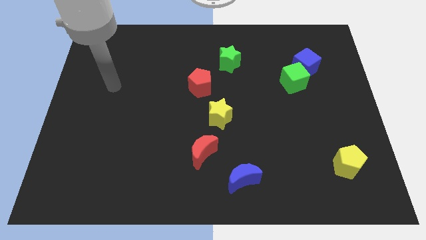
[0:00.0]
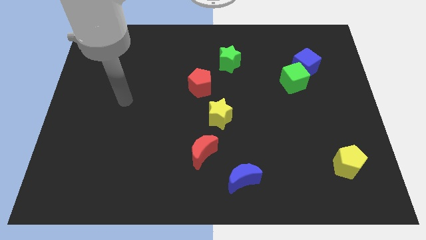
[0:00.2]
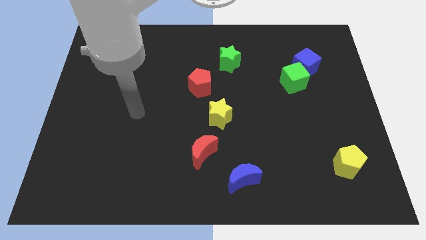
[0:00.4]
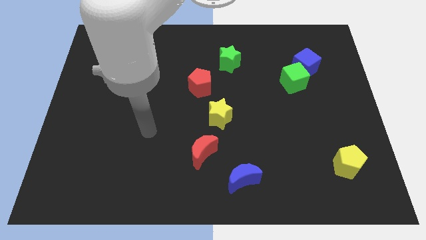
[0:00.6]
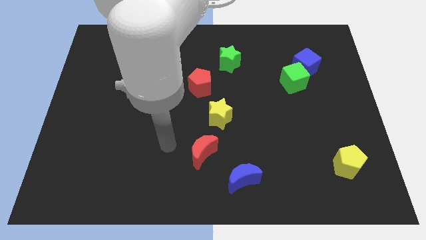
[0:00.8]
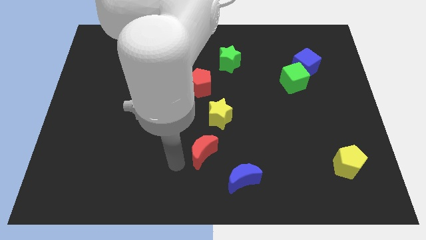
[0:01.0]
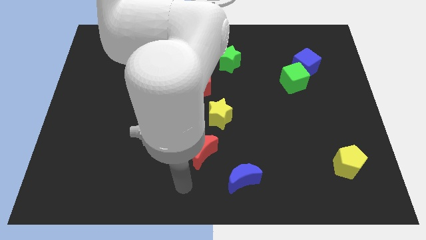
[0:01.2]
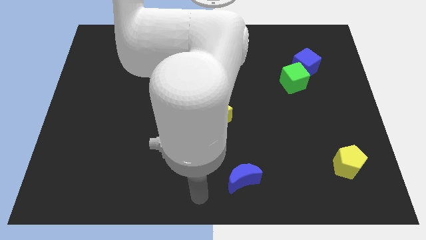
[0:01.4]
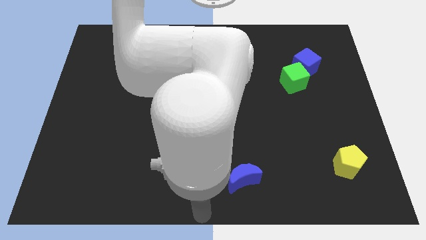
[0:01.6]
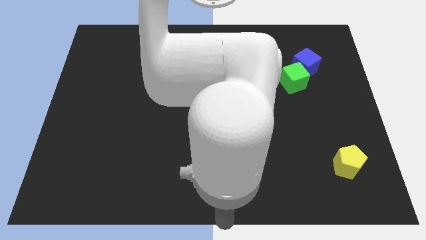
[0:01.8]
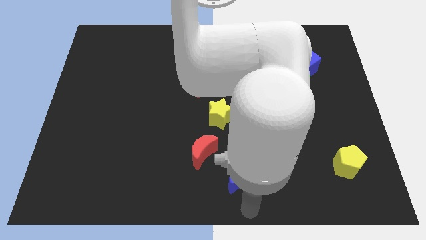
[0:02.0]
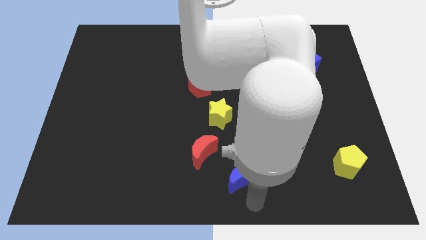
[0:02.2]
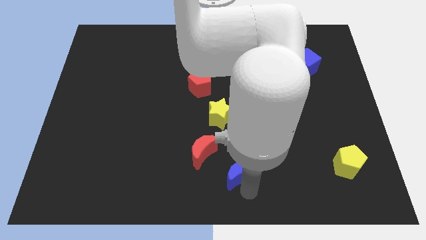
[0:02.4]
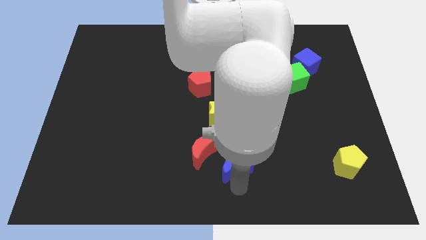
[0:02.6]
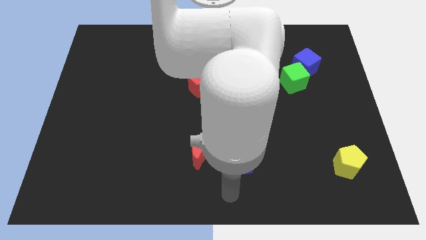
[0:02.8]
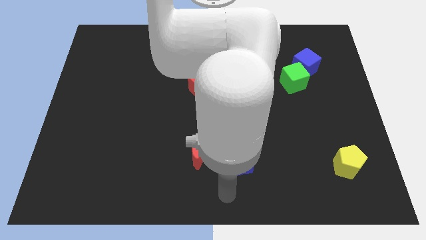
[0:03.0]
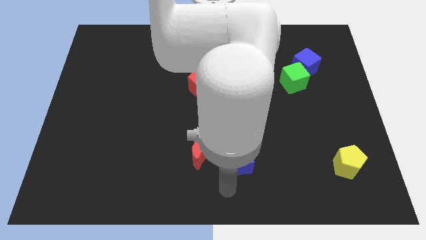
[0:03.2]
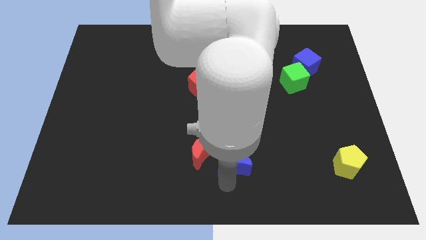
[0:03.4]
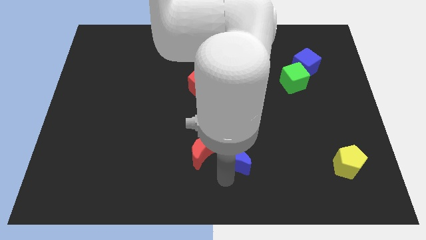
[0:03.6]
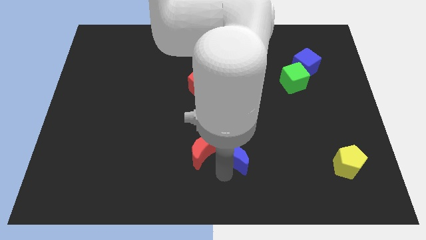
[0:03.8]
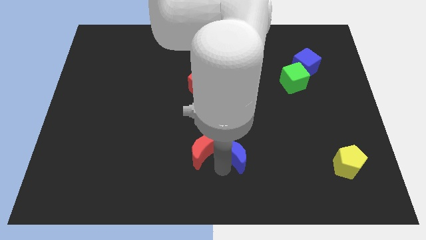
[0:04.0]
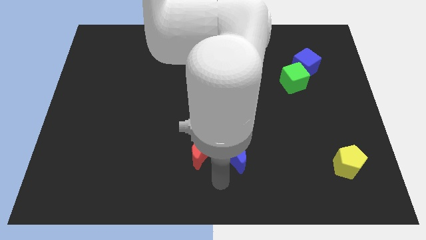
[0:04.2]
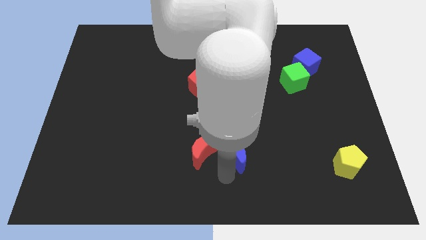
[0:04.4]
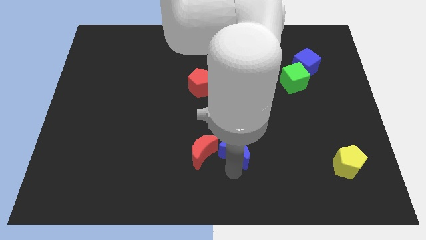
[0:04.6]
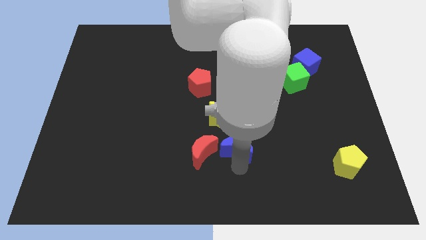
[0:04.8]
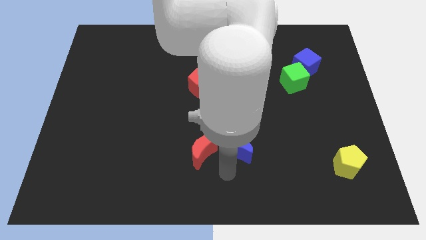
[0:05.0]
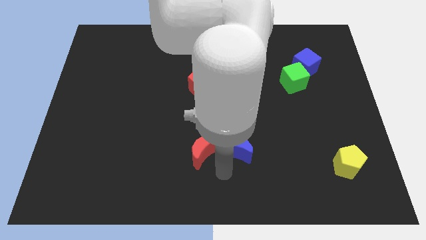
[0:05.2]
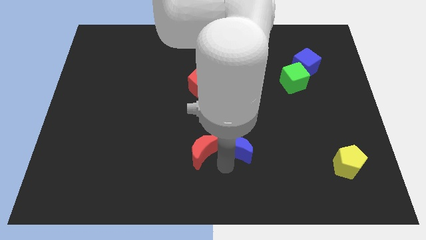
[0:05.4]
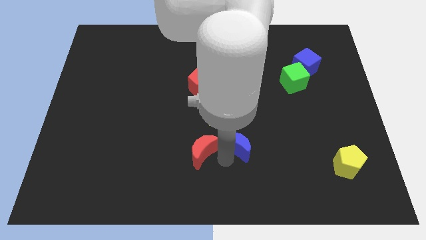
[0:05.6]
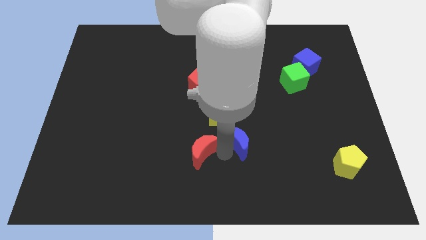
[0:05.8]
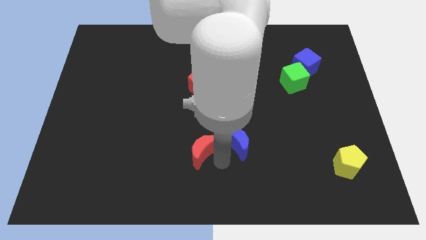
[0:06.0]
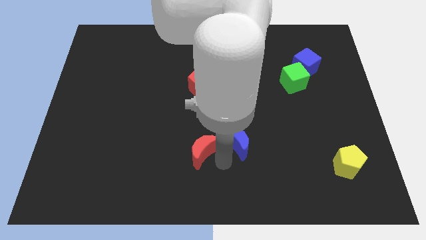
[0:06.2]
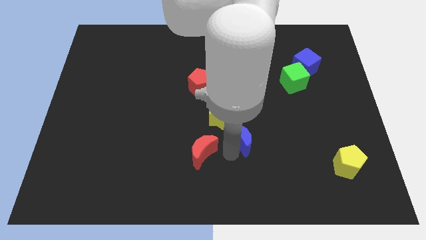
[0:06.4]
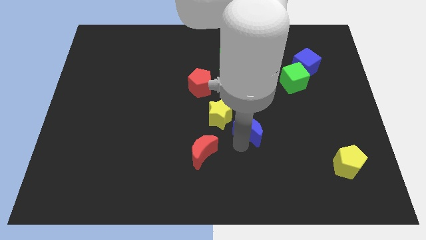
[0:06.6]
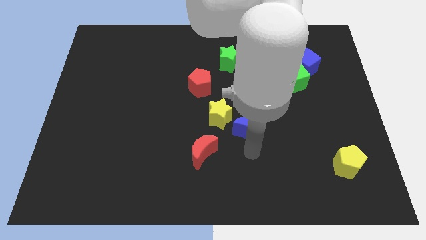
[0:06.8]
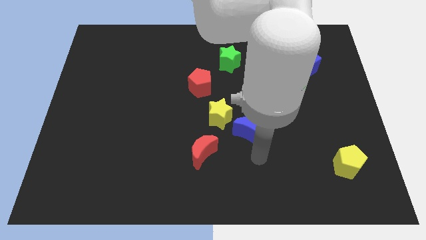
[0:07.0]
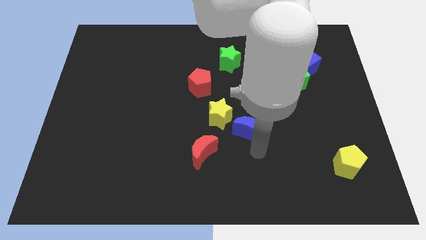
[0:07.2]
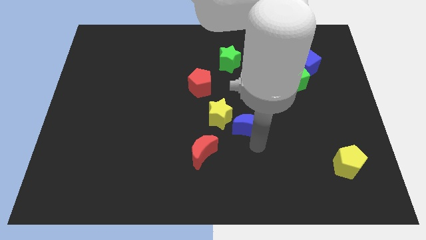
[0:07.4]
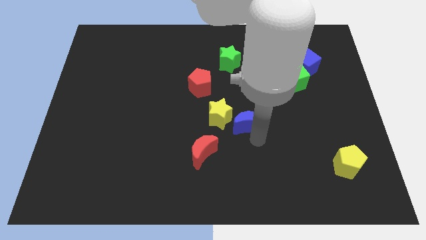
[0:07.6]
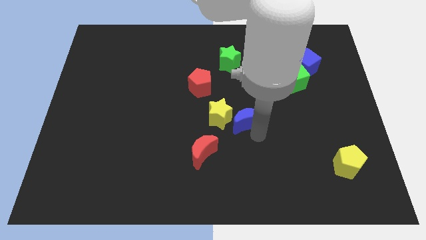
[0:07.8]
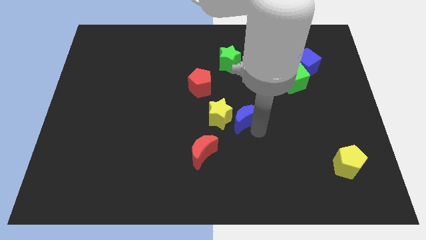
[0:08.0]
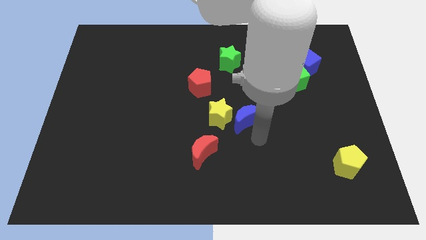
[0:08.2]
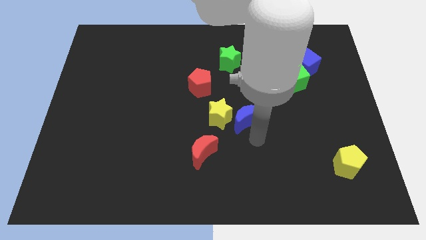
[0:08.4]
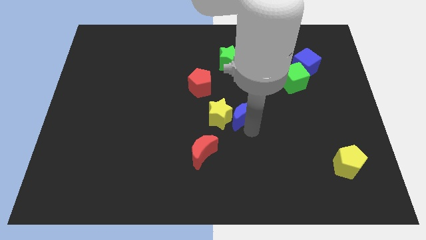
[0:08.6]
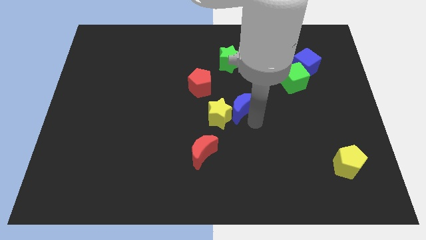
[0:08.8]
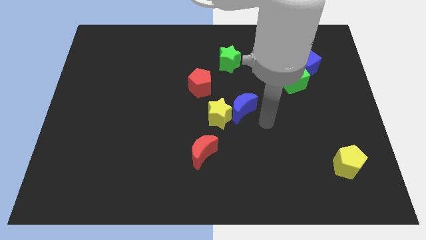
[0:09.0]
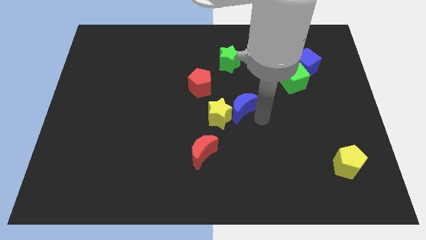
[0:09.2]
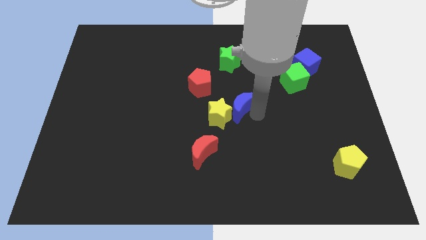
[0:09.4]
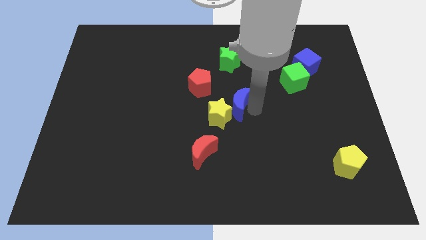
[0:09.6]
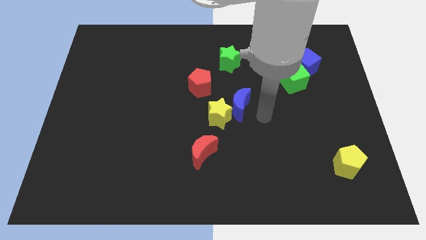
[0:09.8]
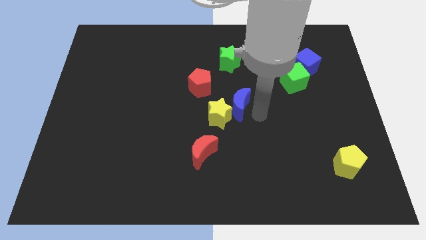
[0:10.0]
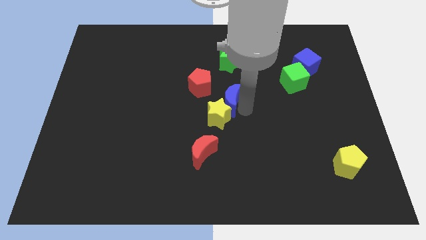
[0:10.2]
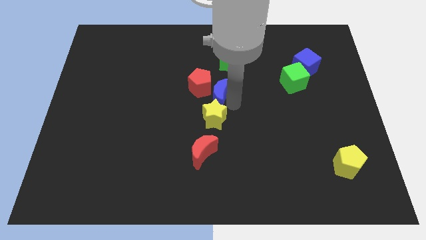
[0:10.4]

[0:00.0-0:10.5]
push the blue moon next to the red pentagon

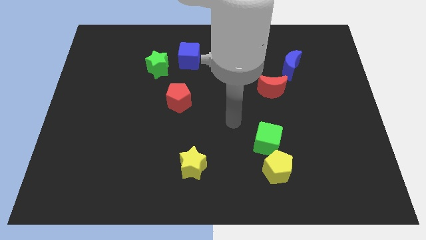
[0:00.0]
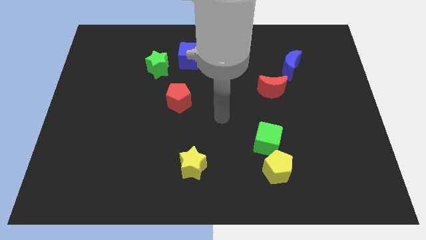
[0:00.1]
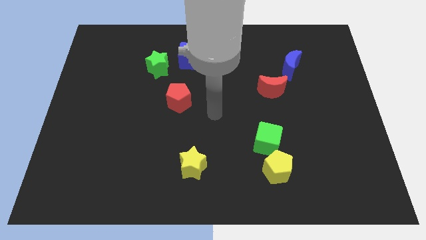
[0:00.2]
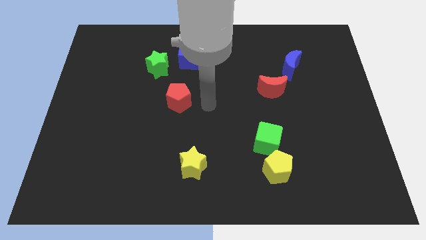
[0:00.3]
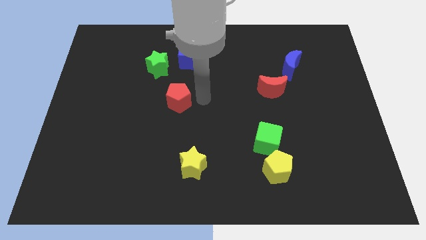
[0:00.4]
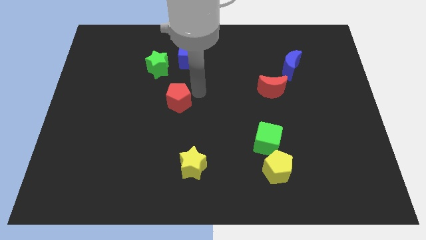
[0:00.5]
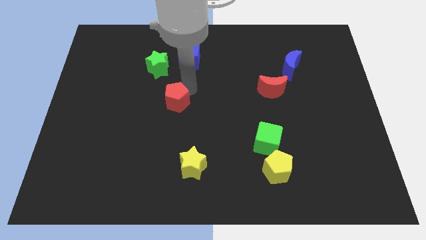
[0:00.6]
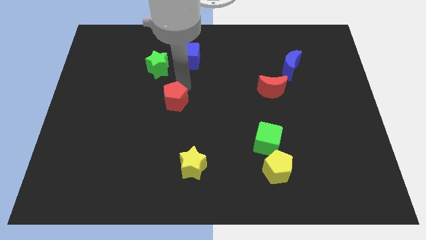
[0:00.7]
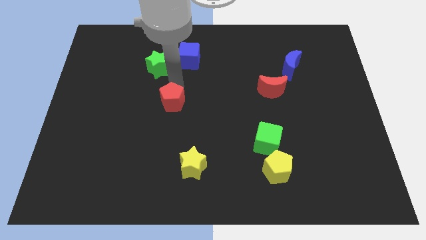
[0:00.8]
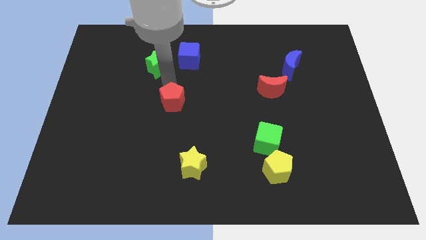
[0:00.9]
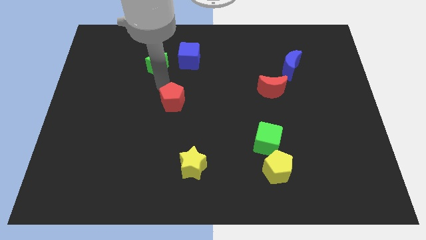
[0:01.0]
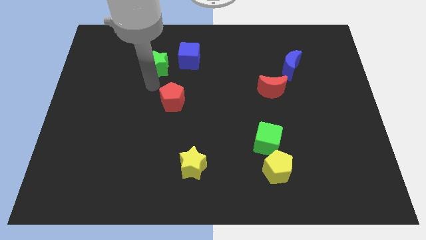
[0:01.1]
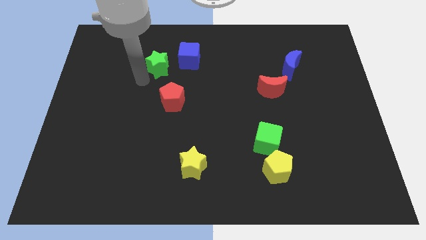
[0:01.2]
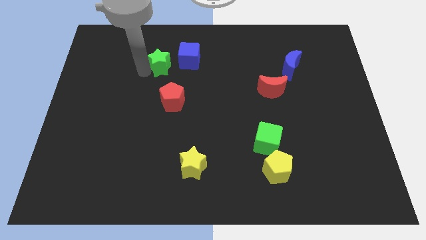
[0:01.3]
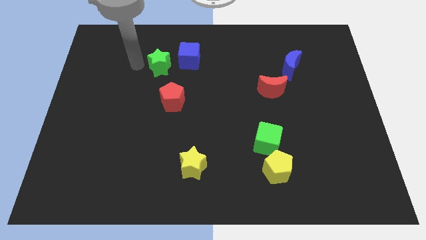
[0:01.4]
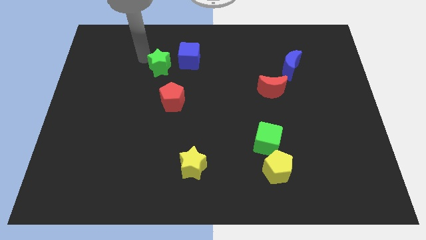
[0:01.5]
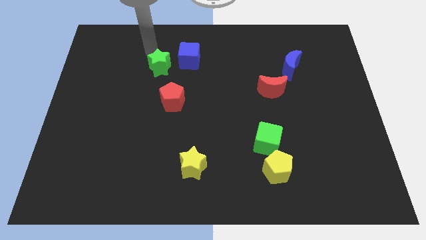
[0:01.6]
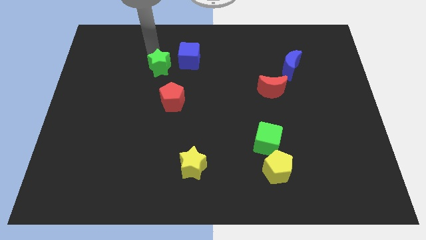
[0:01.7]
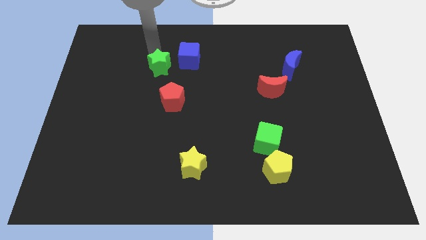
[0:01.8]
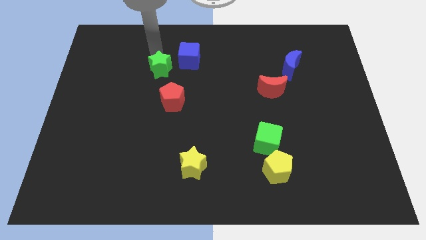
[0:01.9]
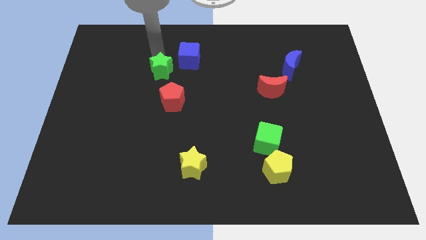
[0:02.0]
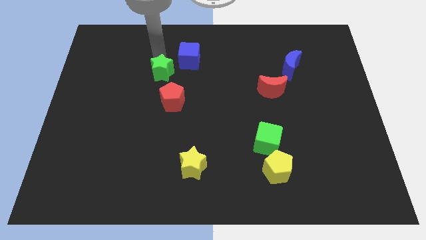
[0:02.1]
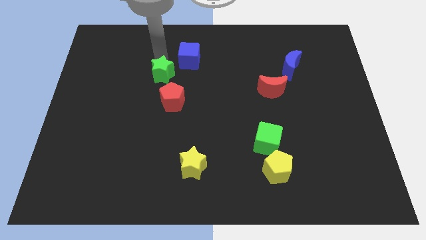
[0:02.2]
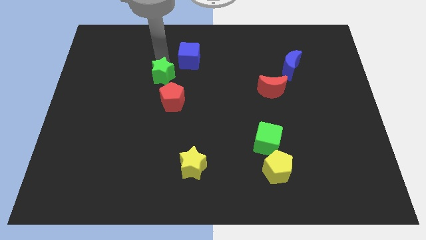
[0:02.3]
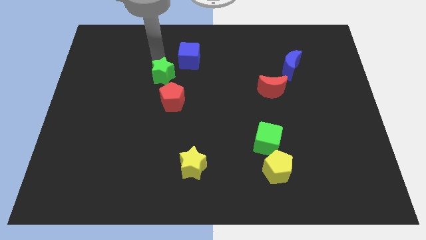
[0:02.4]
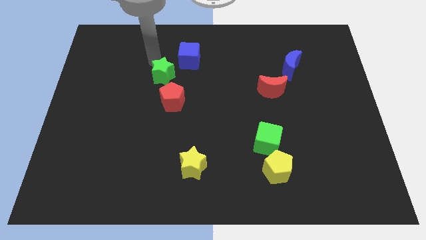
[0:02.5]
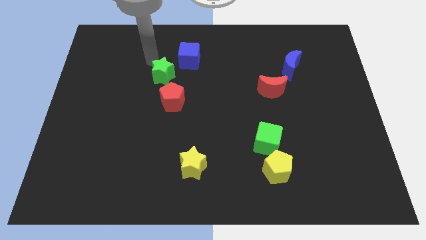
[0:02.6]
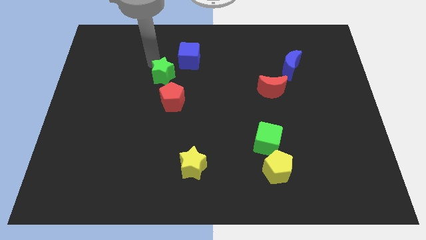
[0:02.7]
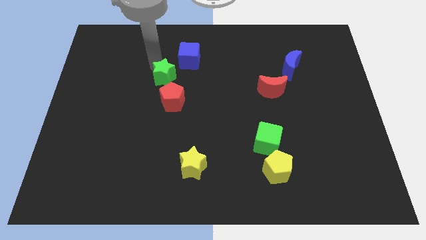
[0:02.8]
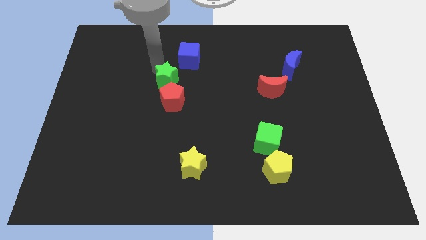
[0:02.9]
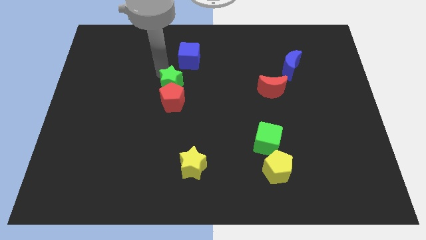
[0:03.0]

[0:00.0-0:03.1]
slide the green star next to the red pentagon
